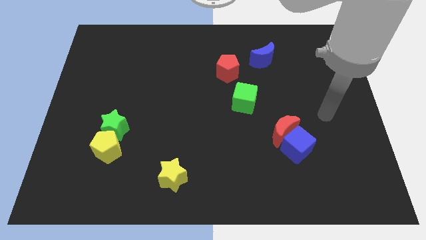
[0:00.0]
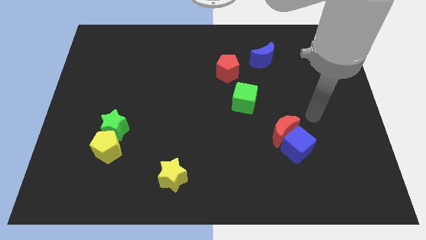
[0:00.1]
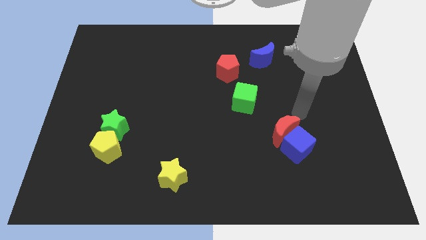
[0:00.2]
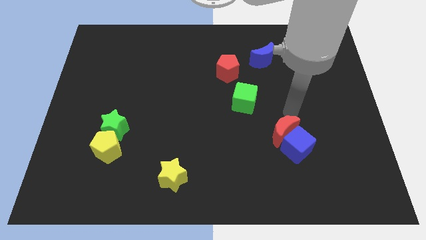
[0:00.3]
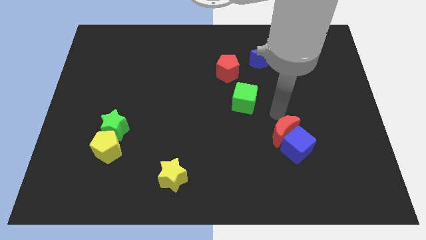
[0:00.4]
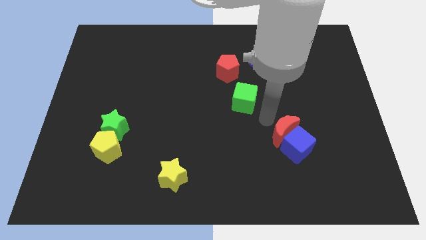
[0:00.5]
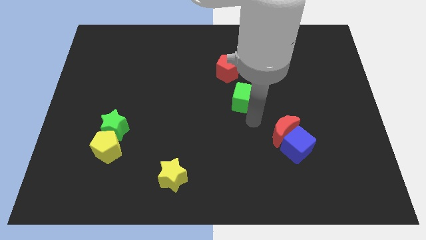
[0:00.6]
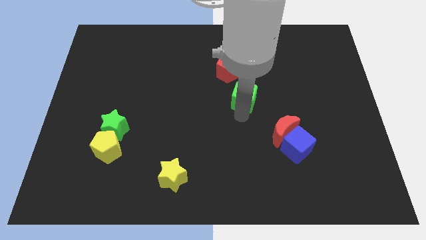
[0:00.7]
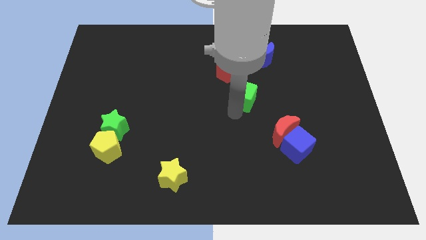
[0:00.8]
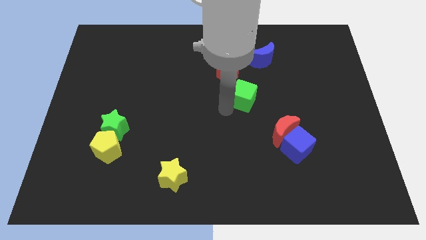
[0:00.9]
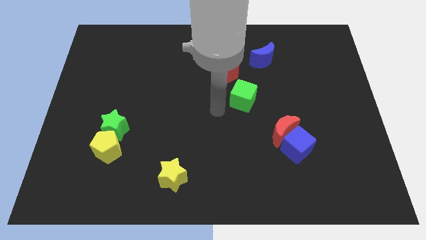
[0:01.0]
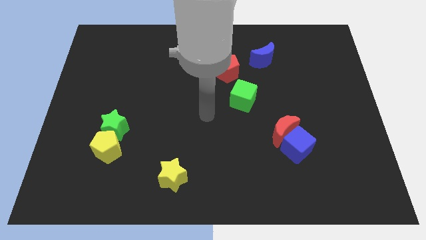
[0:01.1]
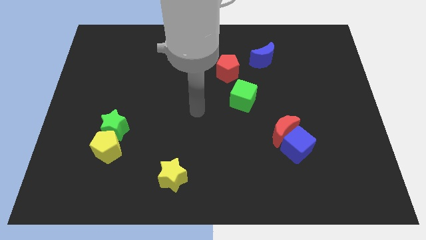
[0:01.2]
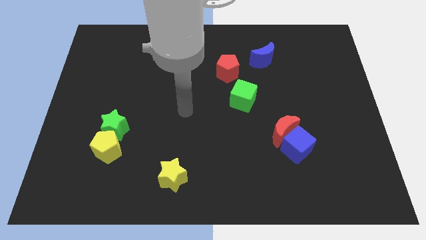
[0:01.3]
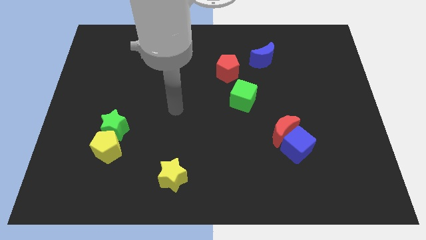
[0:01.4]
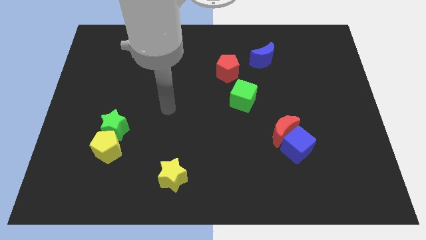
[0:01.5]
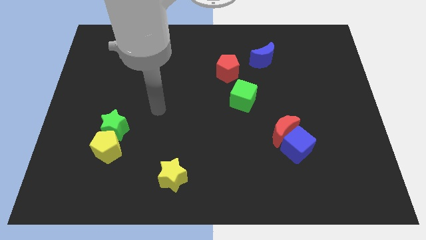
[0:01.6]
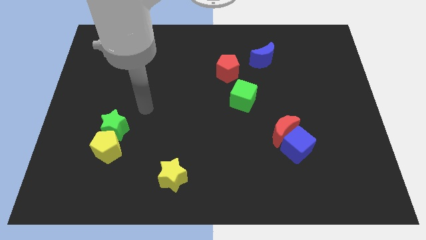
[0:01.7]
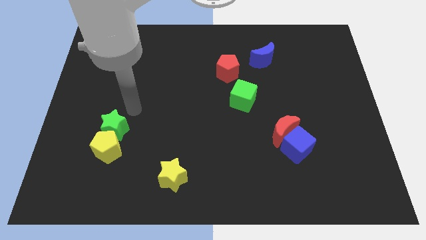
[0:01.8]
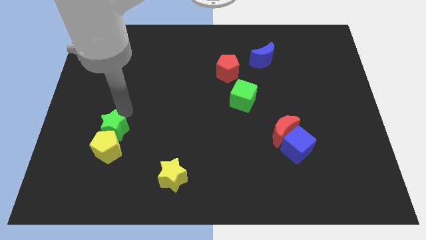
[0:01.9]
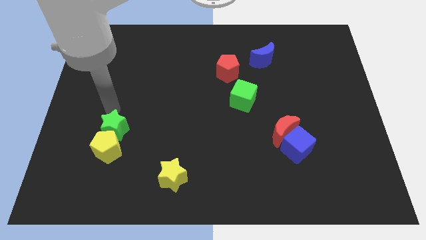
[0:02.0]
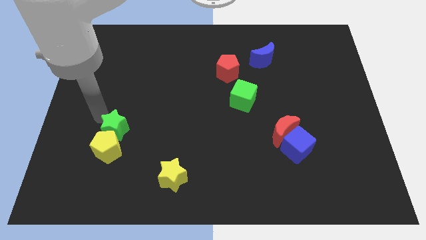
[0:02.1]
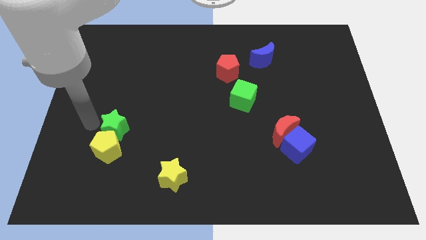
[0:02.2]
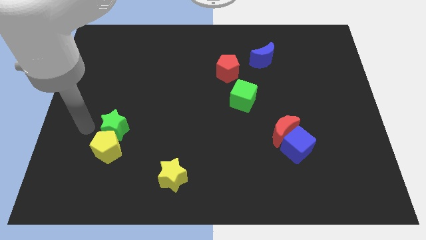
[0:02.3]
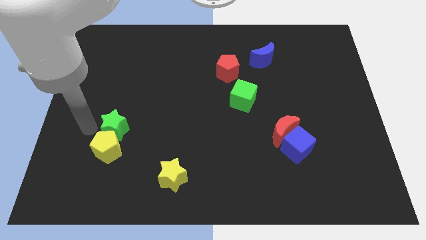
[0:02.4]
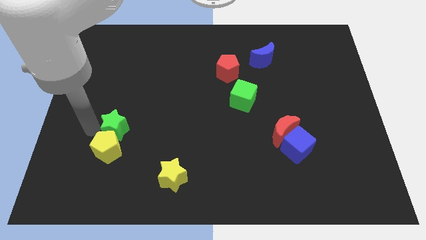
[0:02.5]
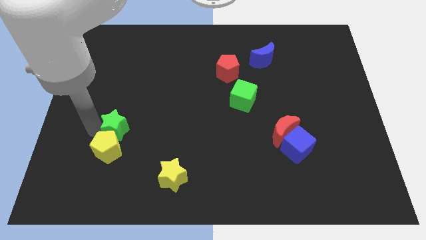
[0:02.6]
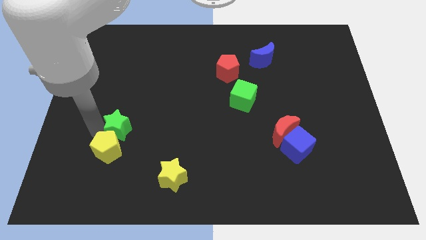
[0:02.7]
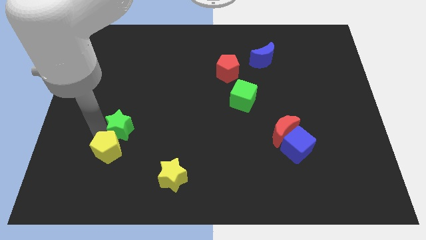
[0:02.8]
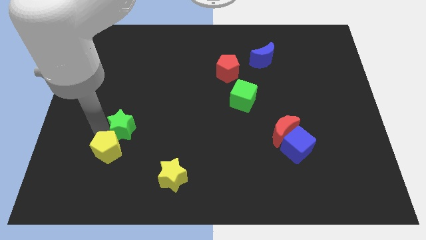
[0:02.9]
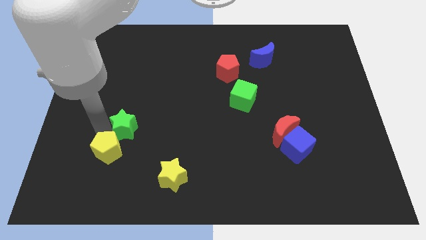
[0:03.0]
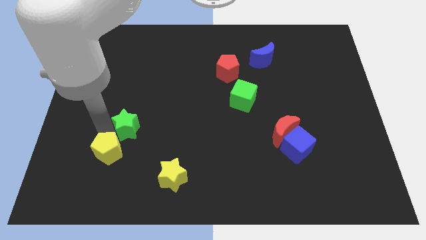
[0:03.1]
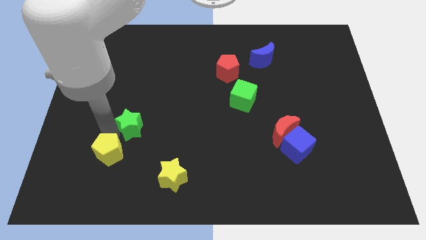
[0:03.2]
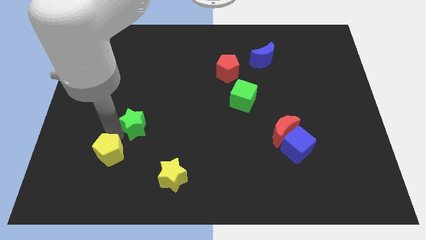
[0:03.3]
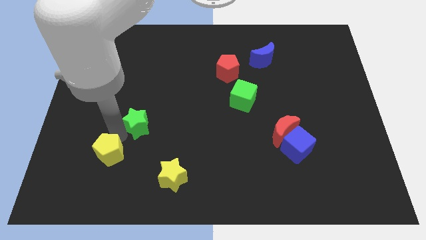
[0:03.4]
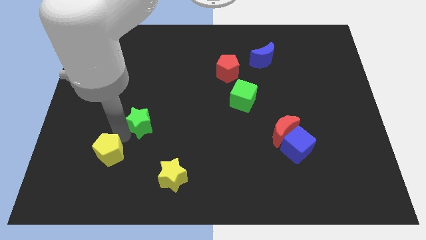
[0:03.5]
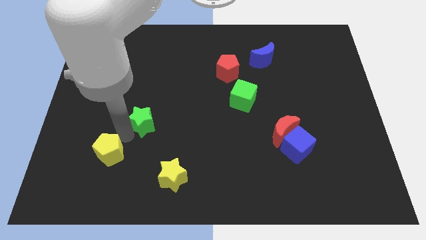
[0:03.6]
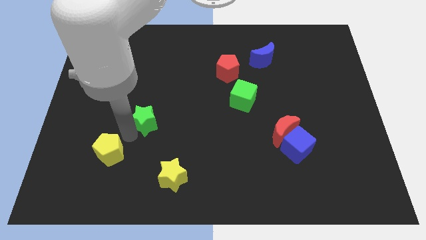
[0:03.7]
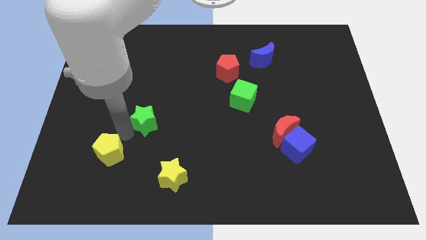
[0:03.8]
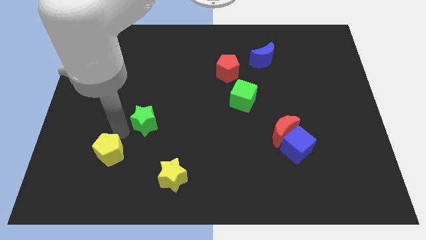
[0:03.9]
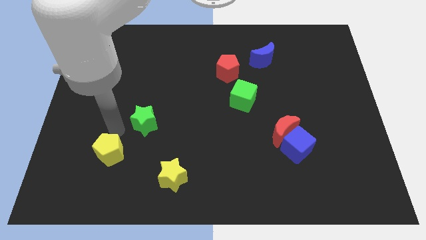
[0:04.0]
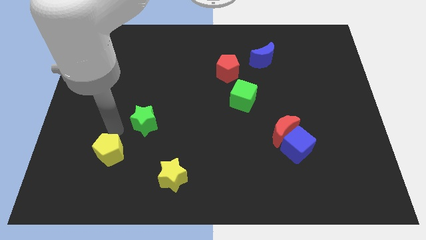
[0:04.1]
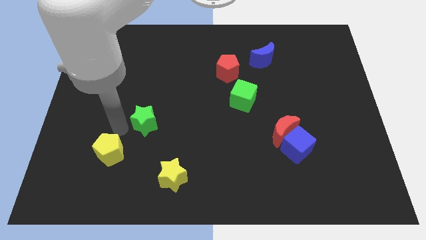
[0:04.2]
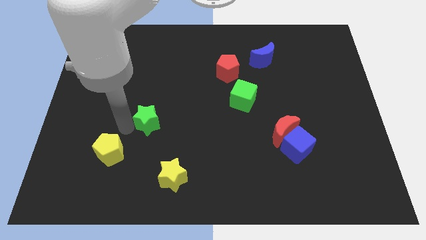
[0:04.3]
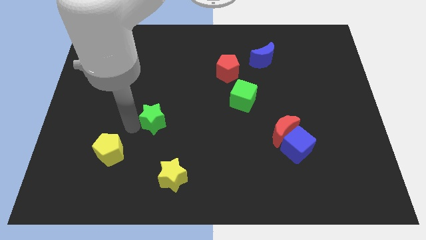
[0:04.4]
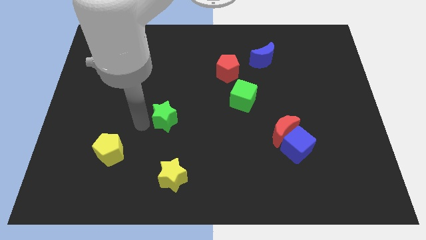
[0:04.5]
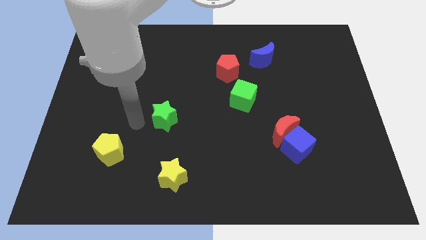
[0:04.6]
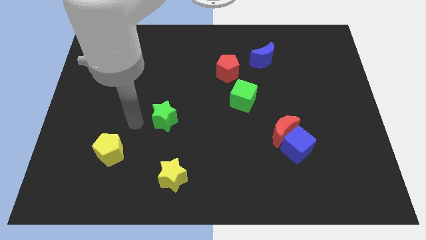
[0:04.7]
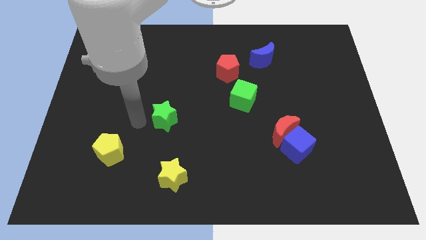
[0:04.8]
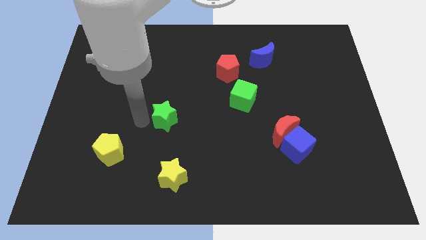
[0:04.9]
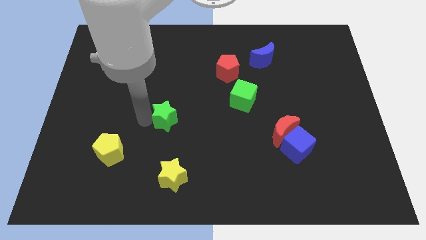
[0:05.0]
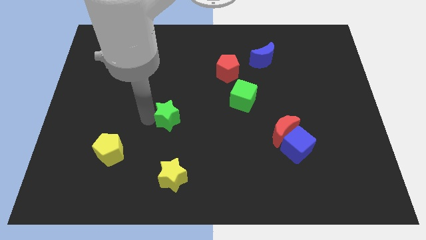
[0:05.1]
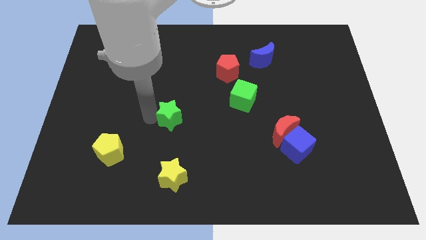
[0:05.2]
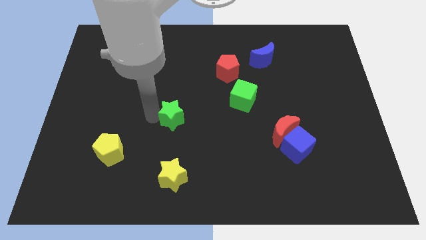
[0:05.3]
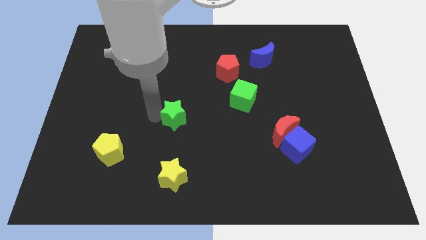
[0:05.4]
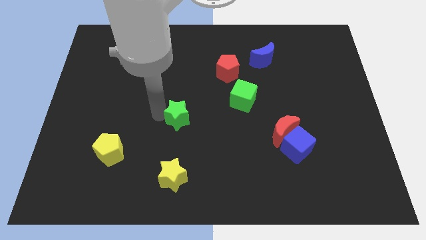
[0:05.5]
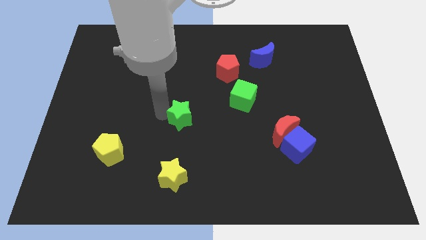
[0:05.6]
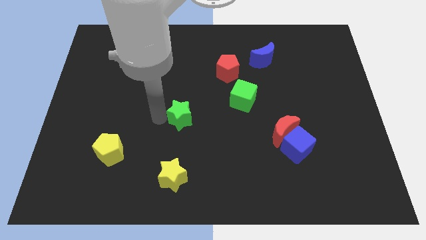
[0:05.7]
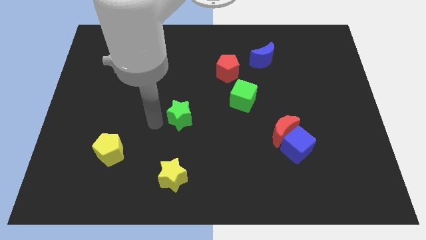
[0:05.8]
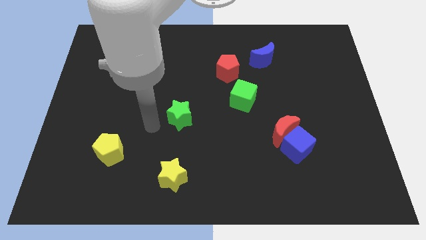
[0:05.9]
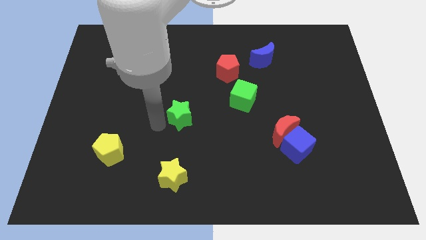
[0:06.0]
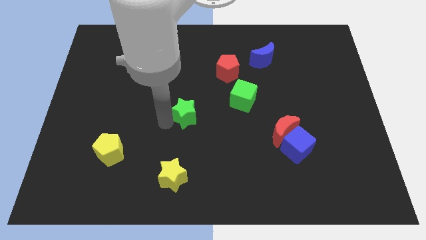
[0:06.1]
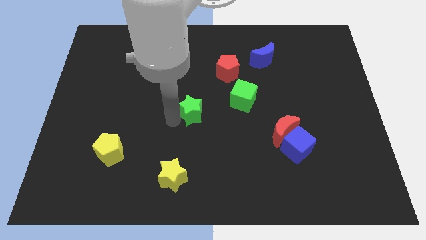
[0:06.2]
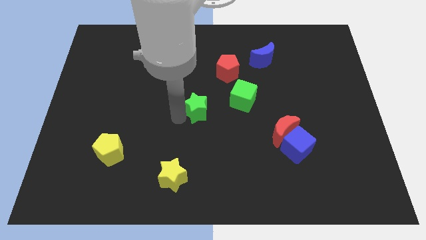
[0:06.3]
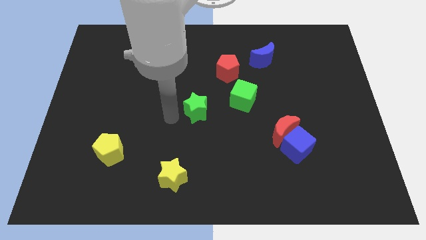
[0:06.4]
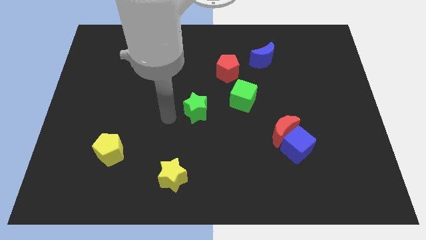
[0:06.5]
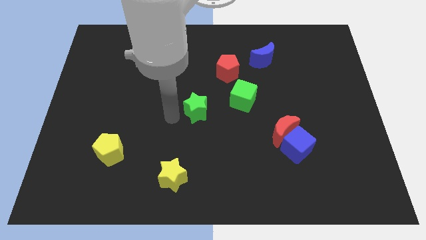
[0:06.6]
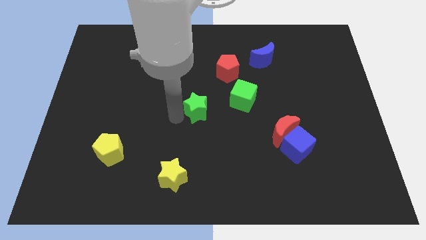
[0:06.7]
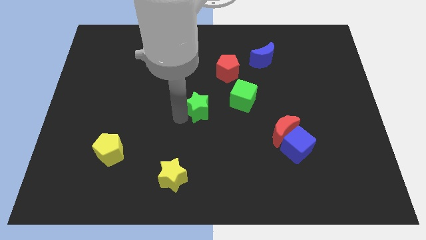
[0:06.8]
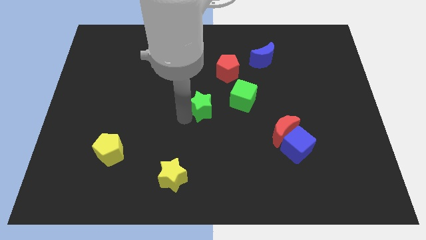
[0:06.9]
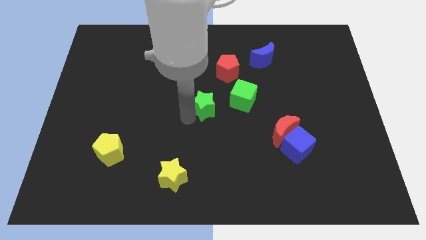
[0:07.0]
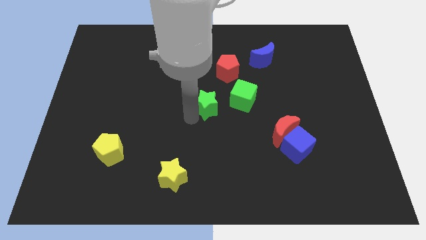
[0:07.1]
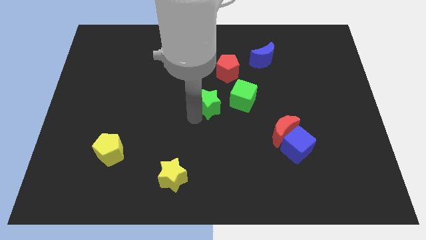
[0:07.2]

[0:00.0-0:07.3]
put the green star below the red pentagon
